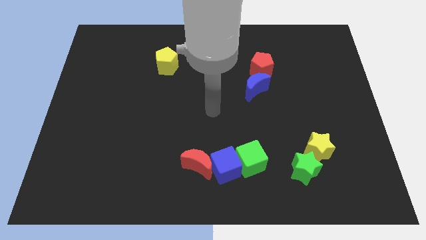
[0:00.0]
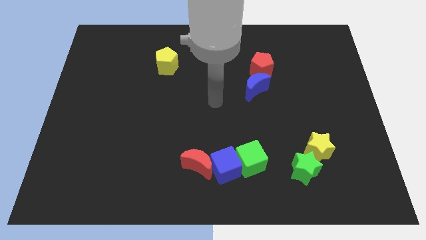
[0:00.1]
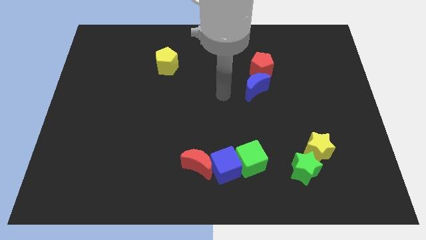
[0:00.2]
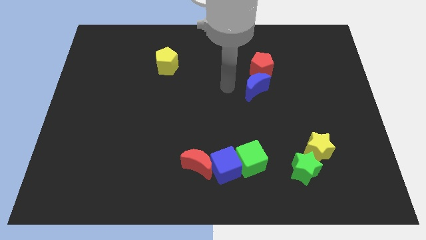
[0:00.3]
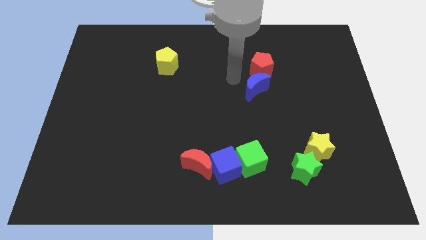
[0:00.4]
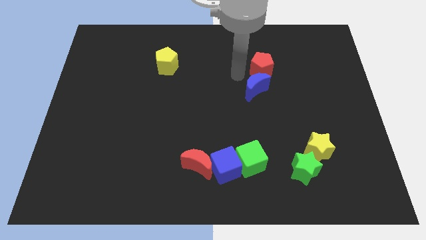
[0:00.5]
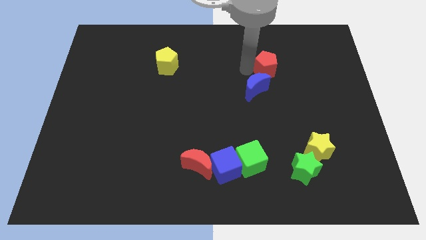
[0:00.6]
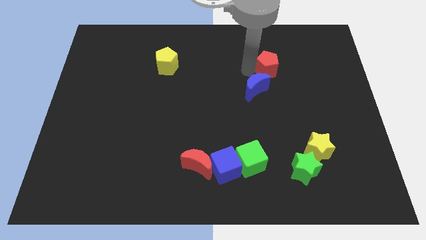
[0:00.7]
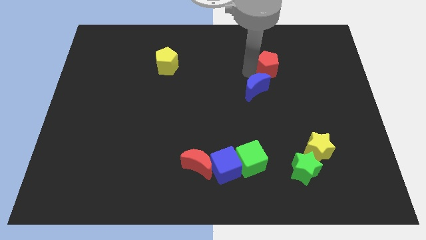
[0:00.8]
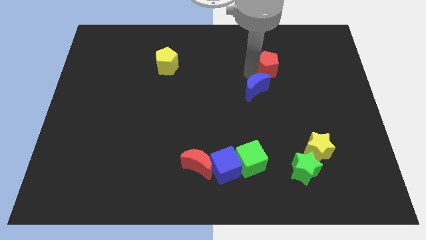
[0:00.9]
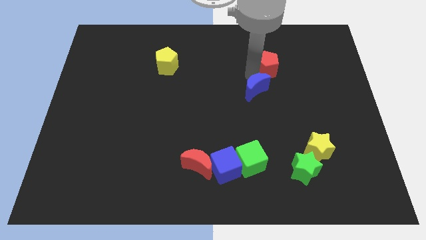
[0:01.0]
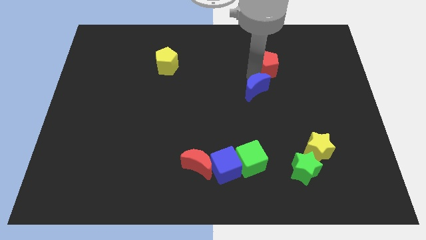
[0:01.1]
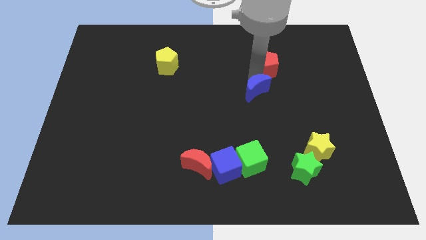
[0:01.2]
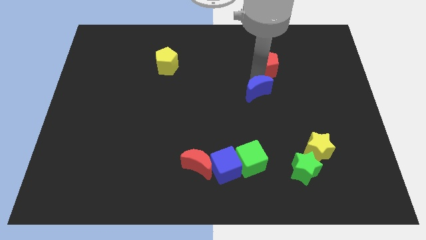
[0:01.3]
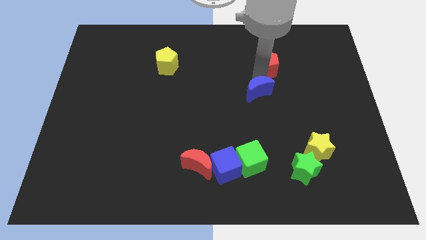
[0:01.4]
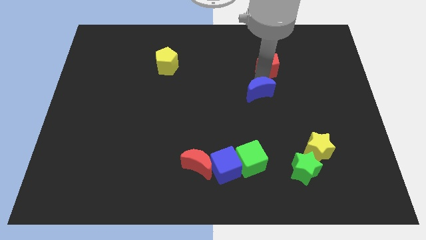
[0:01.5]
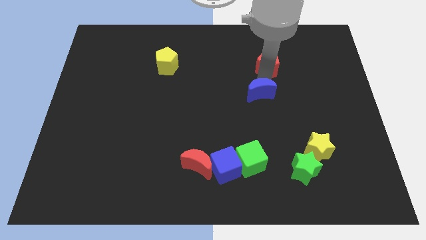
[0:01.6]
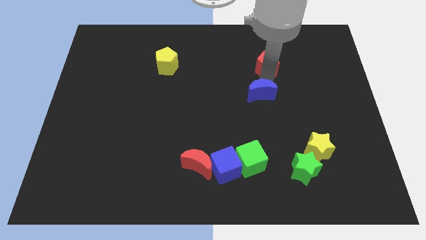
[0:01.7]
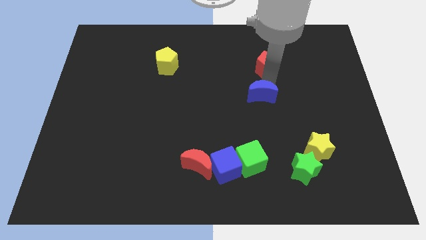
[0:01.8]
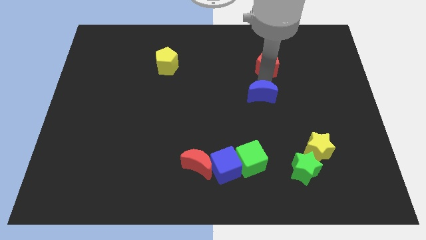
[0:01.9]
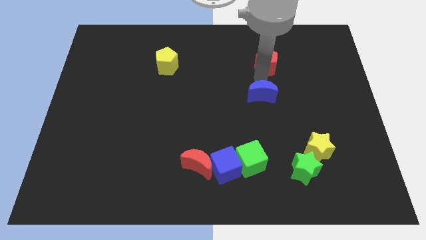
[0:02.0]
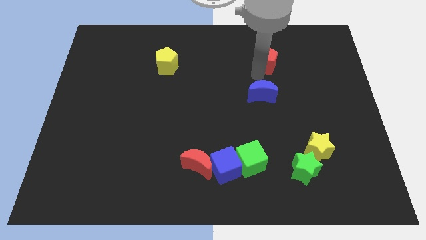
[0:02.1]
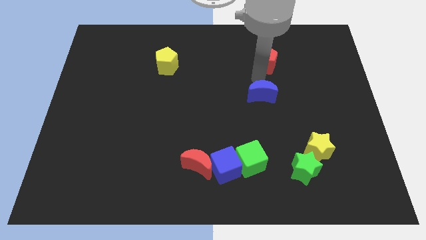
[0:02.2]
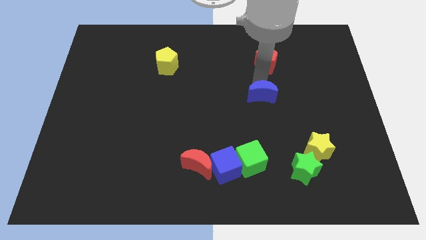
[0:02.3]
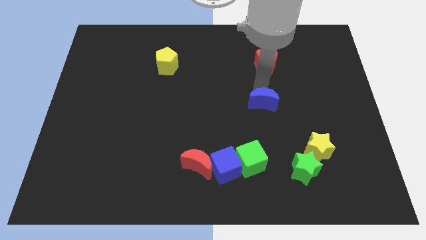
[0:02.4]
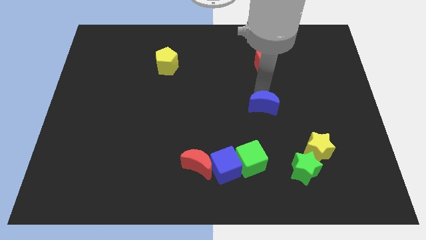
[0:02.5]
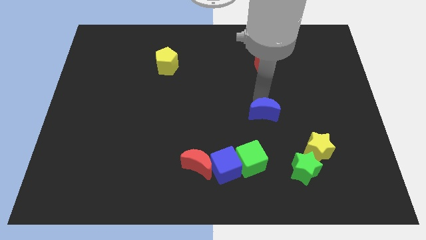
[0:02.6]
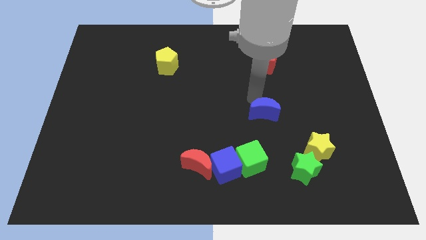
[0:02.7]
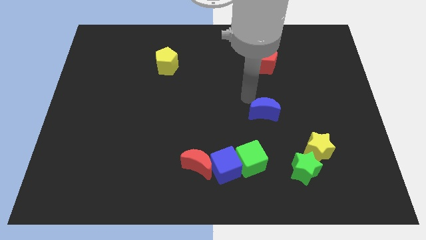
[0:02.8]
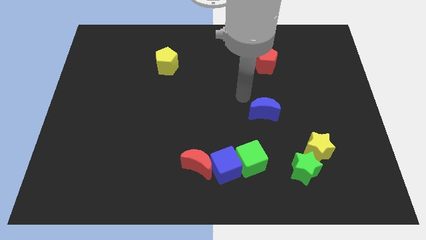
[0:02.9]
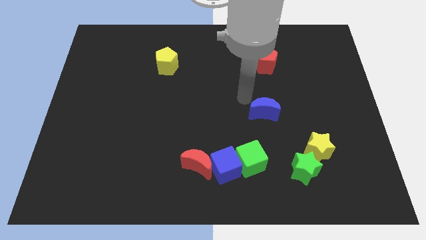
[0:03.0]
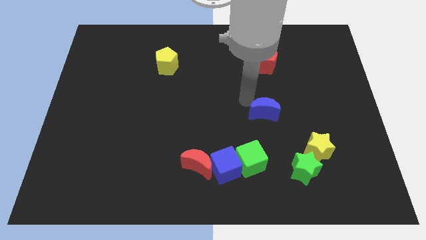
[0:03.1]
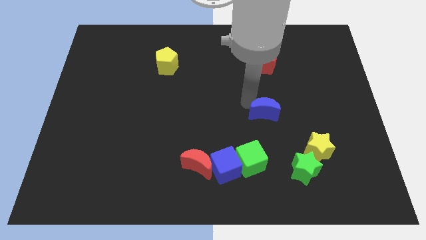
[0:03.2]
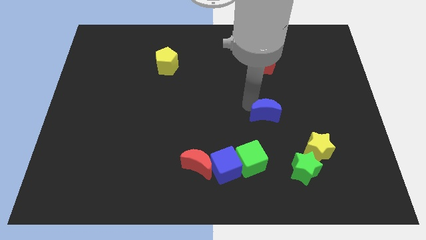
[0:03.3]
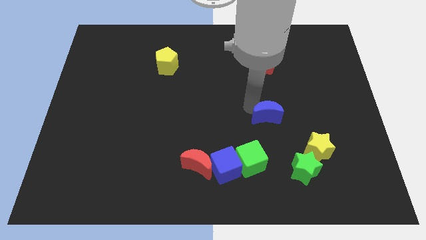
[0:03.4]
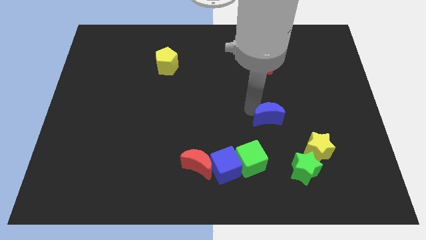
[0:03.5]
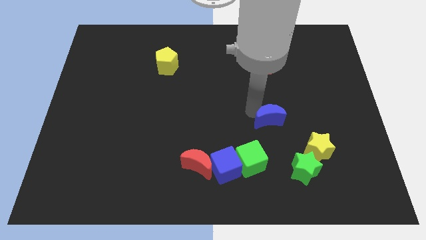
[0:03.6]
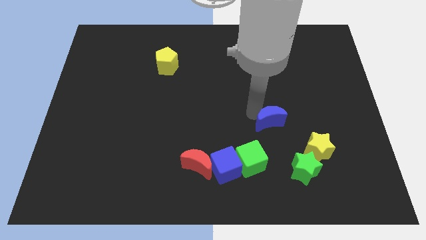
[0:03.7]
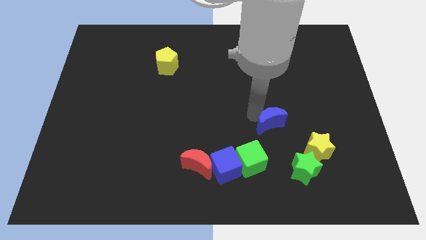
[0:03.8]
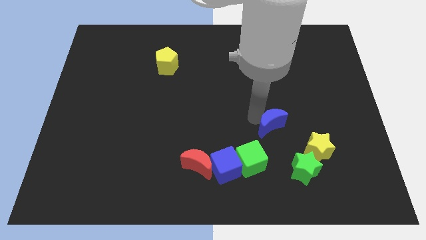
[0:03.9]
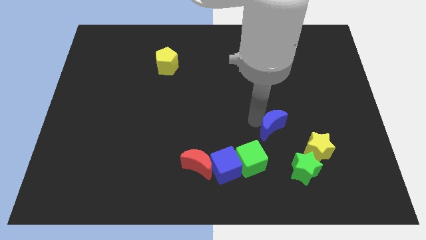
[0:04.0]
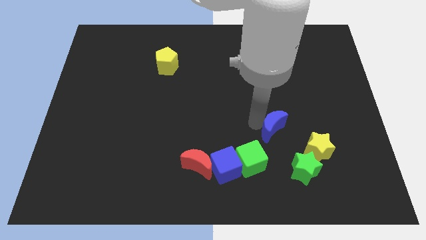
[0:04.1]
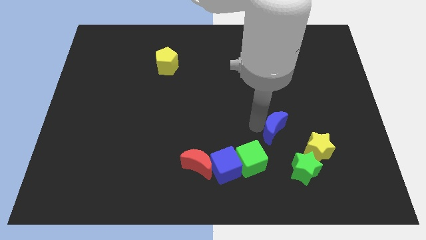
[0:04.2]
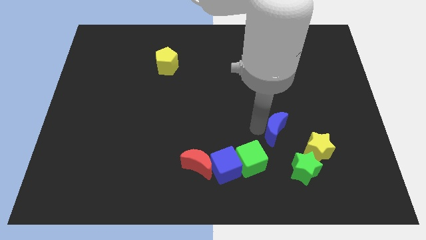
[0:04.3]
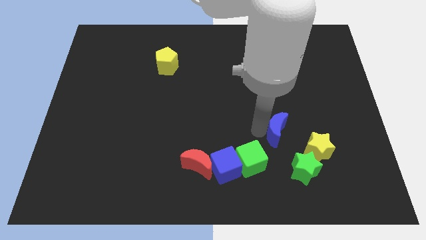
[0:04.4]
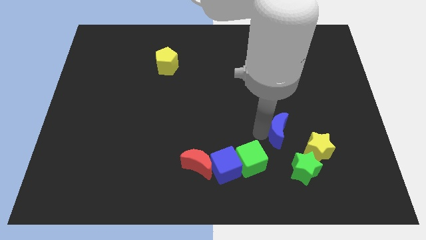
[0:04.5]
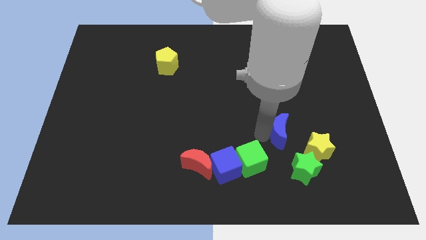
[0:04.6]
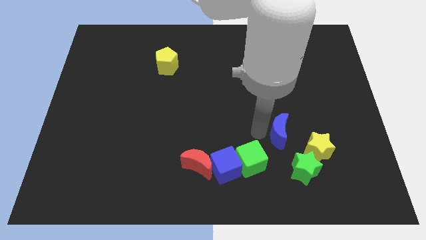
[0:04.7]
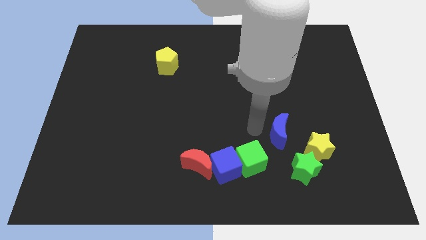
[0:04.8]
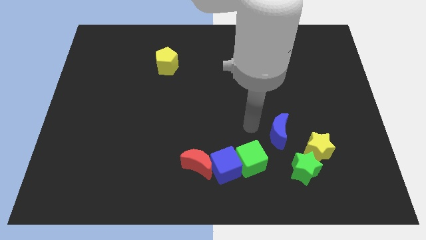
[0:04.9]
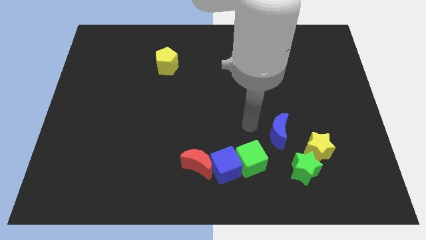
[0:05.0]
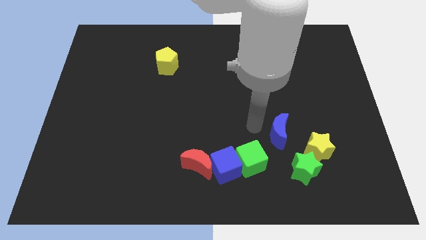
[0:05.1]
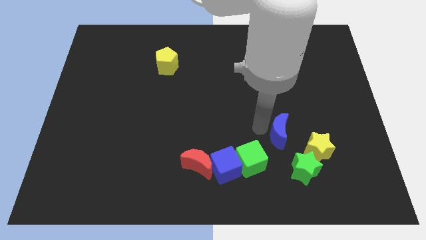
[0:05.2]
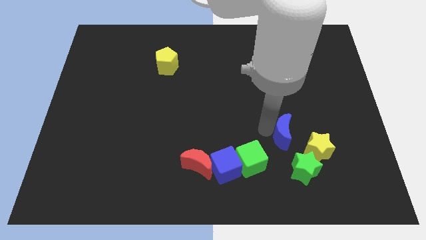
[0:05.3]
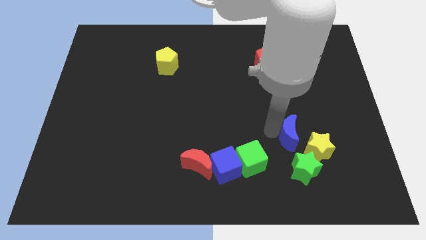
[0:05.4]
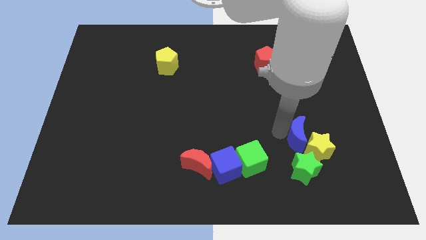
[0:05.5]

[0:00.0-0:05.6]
slide the blue moon close to the yellow star

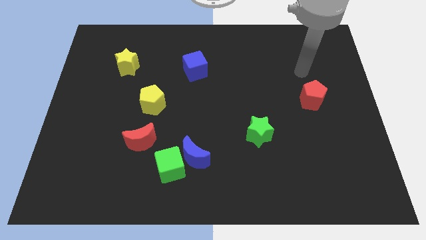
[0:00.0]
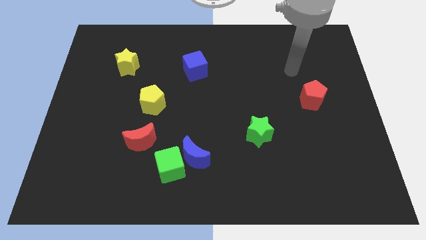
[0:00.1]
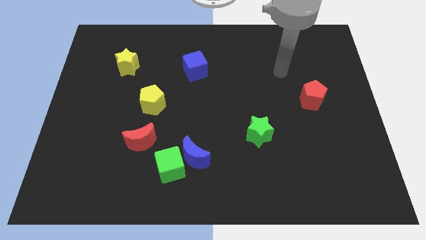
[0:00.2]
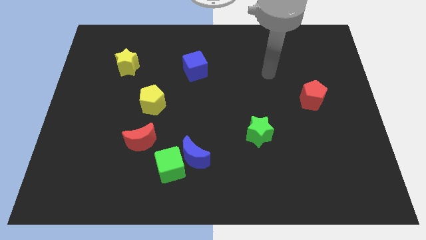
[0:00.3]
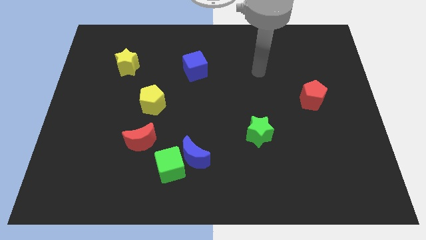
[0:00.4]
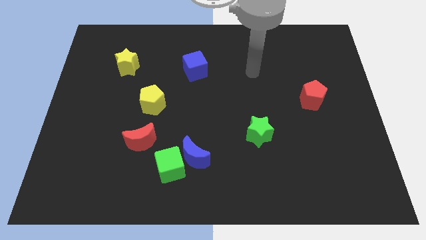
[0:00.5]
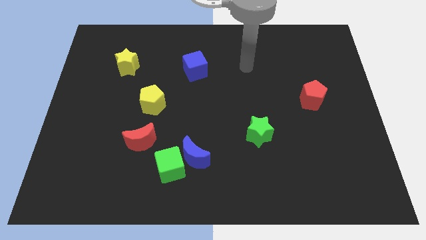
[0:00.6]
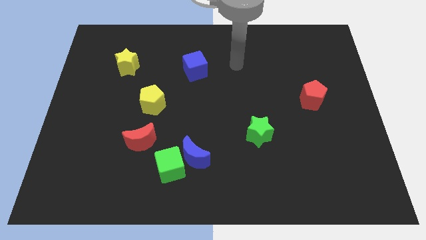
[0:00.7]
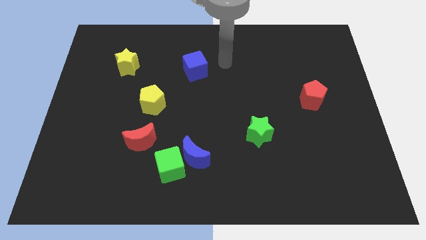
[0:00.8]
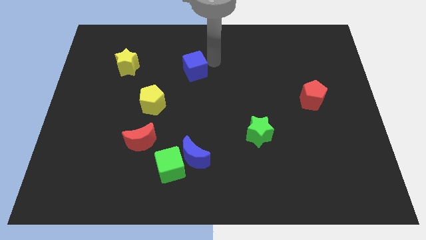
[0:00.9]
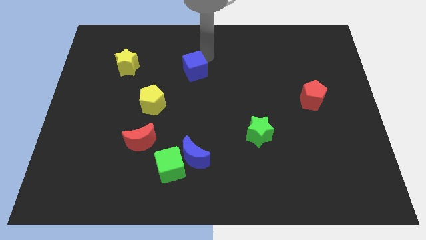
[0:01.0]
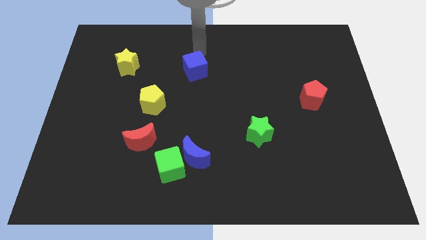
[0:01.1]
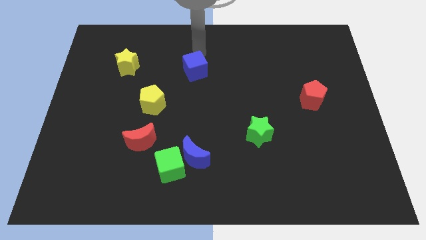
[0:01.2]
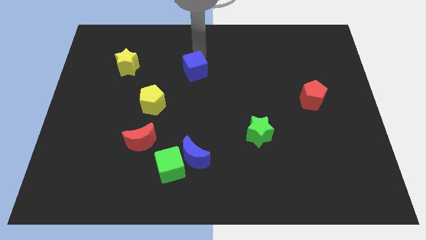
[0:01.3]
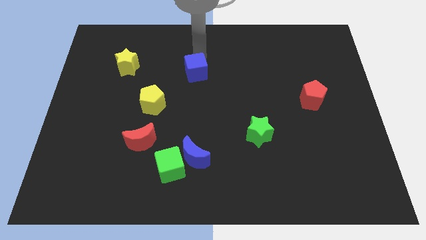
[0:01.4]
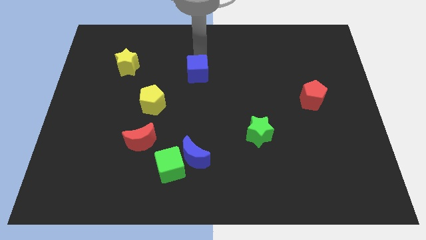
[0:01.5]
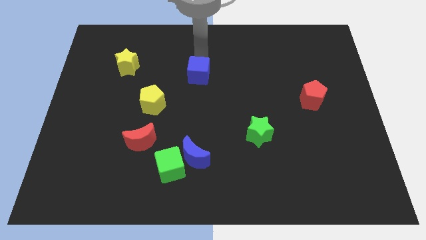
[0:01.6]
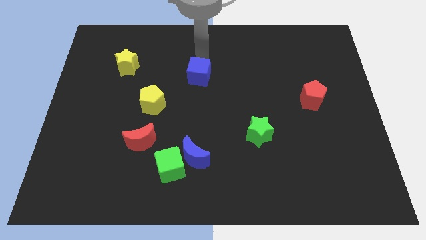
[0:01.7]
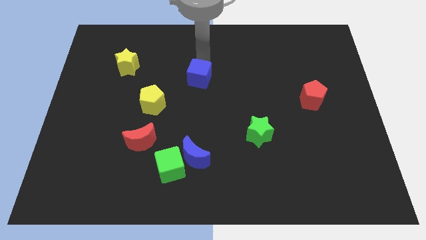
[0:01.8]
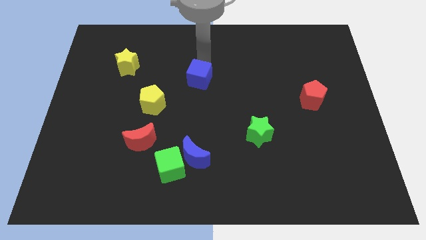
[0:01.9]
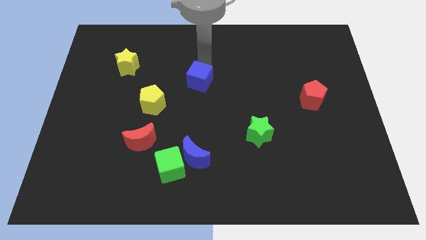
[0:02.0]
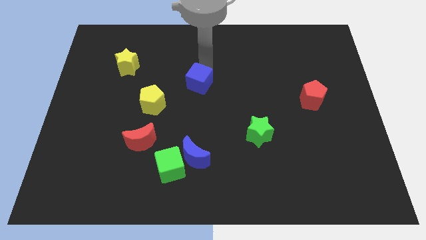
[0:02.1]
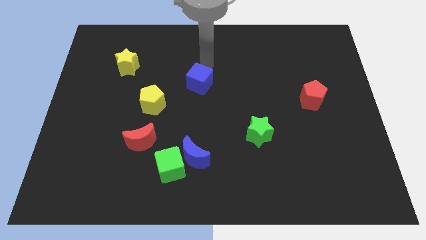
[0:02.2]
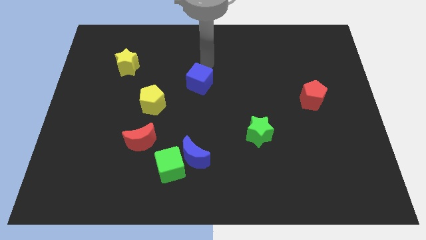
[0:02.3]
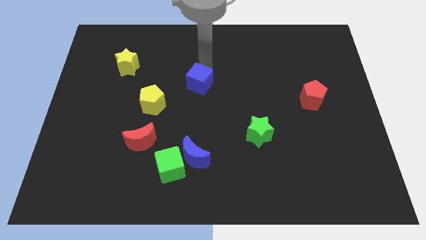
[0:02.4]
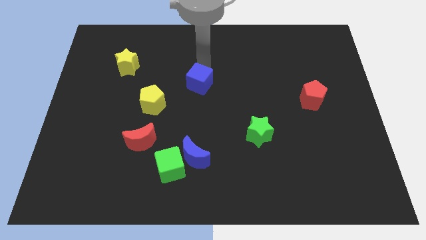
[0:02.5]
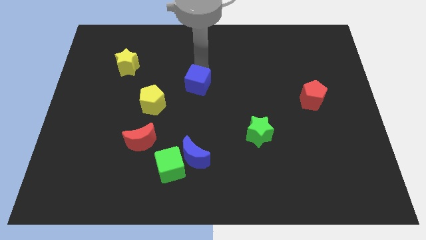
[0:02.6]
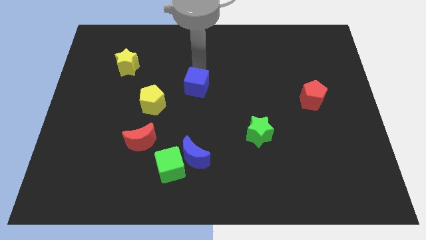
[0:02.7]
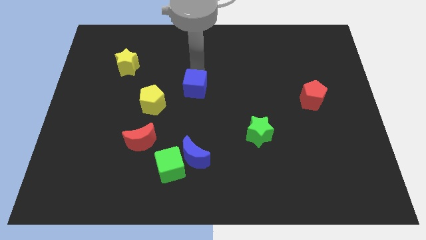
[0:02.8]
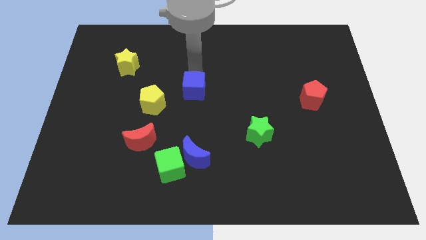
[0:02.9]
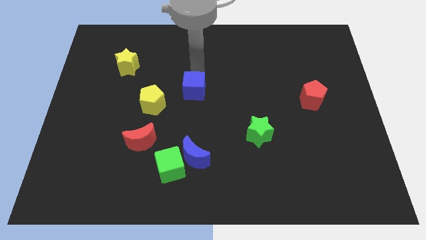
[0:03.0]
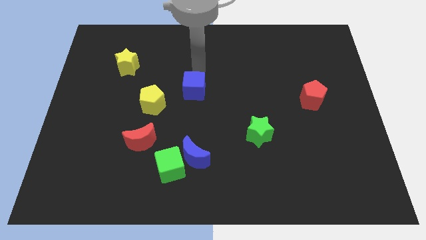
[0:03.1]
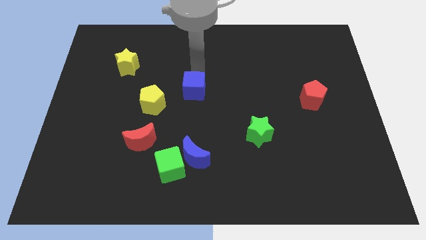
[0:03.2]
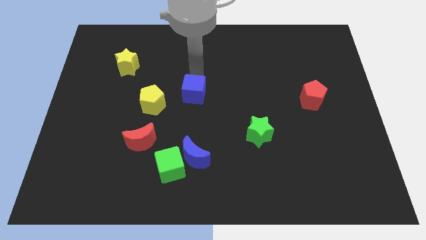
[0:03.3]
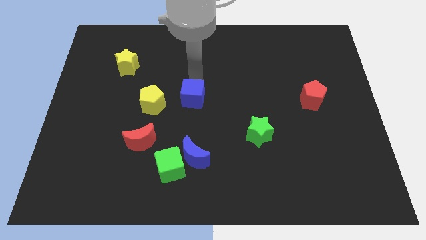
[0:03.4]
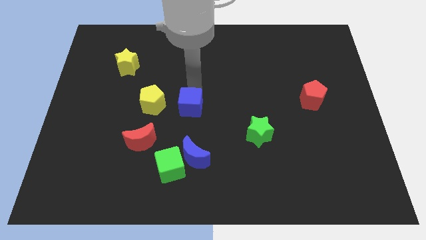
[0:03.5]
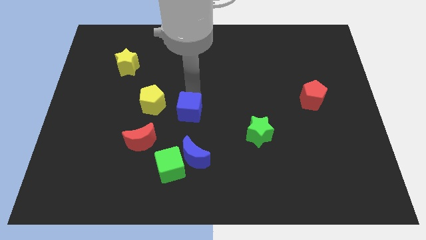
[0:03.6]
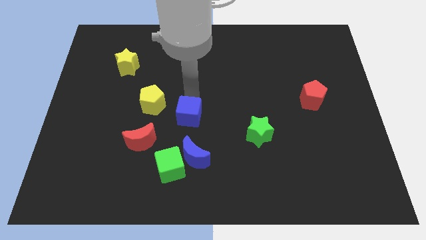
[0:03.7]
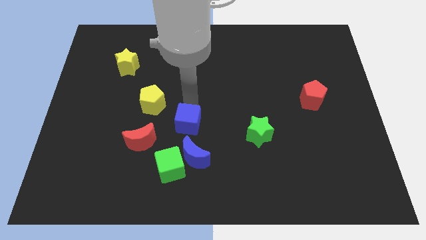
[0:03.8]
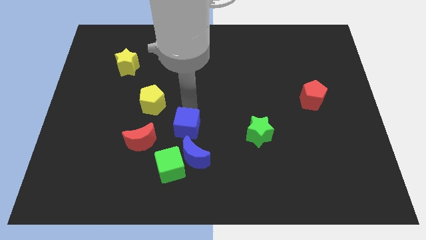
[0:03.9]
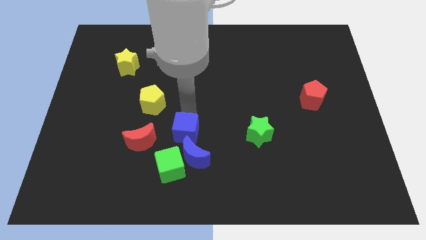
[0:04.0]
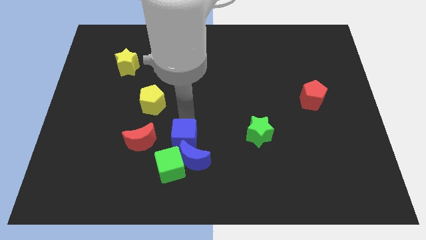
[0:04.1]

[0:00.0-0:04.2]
put the blue cube towards the blue moon
